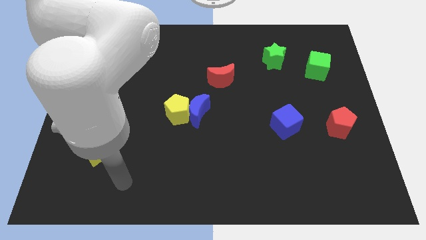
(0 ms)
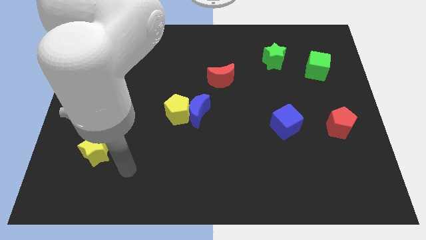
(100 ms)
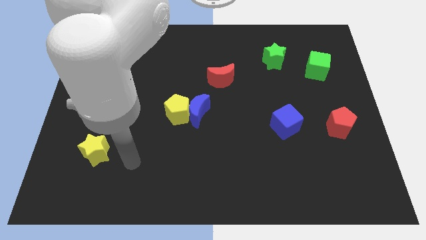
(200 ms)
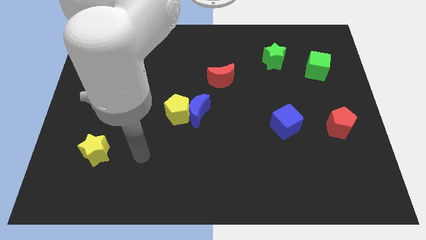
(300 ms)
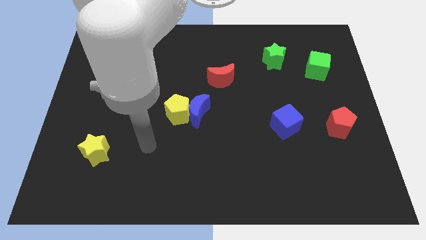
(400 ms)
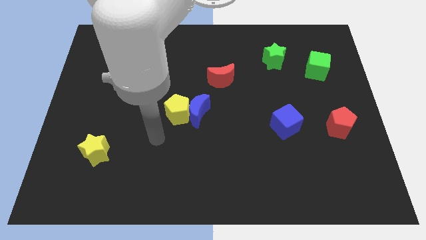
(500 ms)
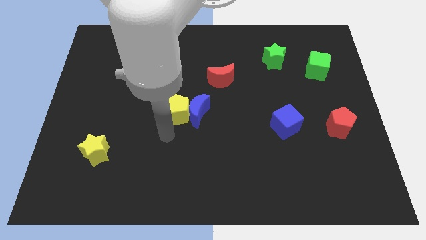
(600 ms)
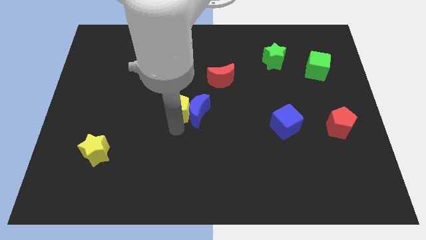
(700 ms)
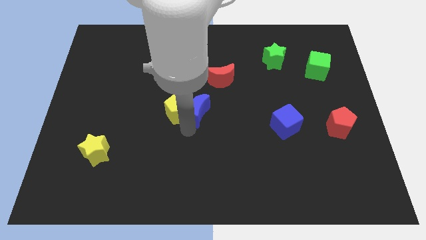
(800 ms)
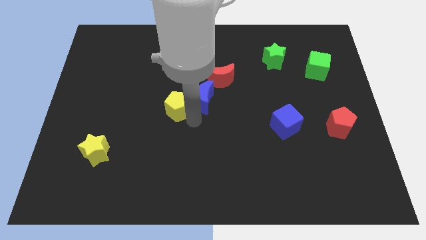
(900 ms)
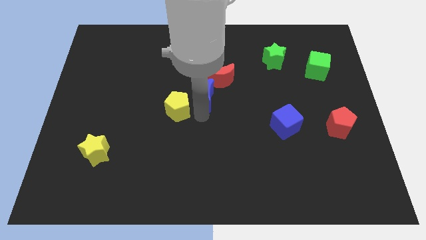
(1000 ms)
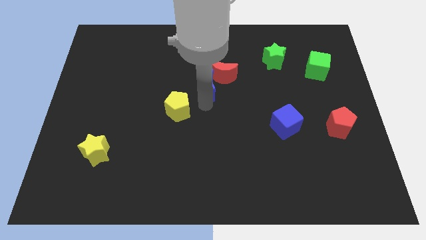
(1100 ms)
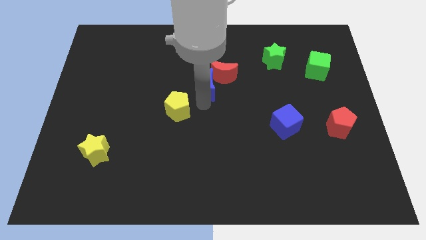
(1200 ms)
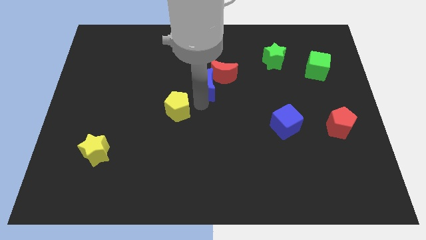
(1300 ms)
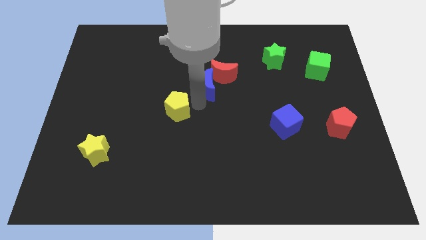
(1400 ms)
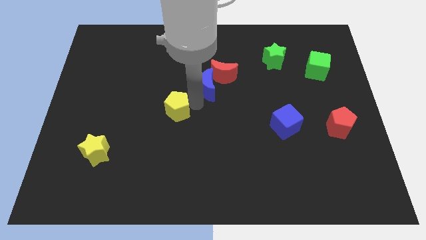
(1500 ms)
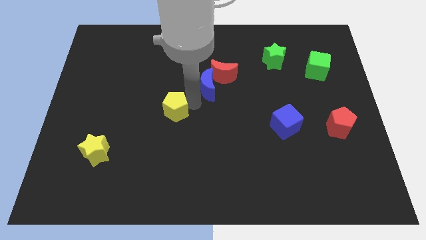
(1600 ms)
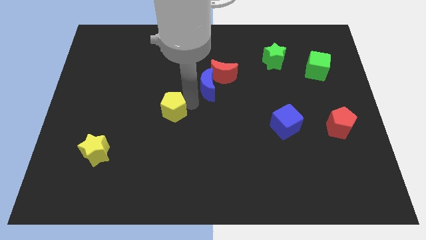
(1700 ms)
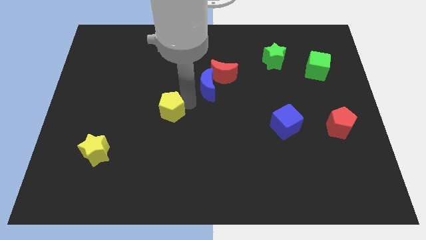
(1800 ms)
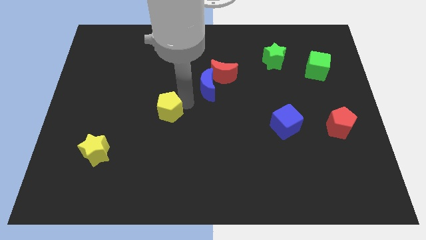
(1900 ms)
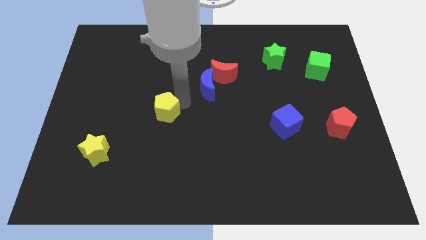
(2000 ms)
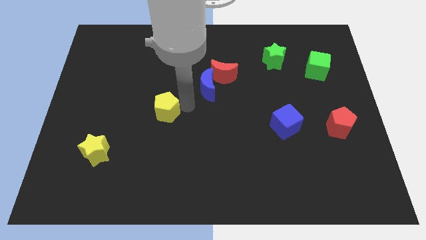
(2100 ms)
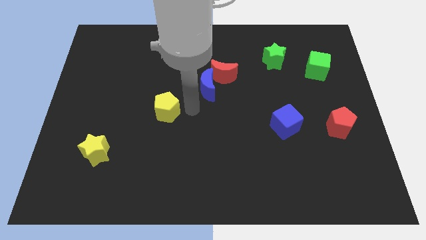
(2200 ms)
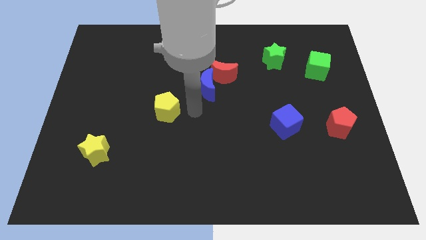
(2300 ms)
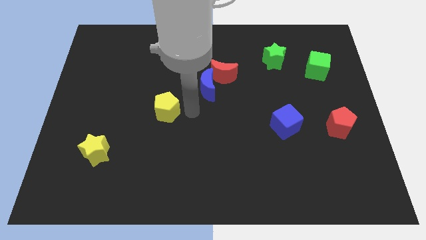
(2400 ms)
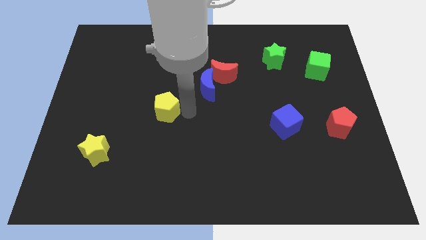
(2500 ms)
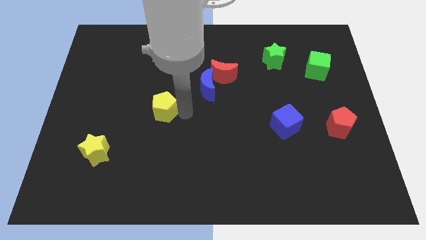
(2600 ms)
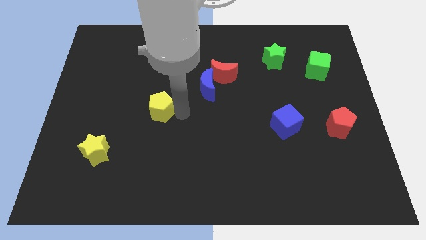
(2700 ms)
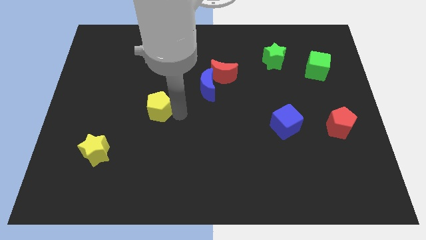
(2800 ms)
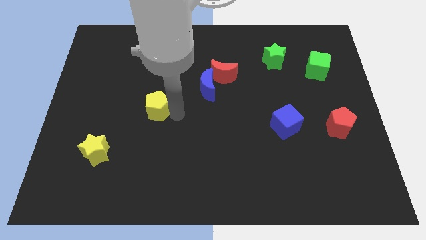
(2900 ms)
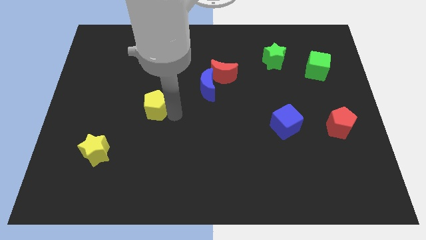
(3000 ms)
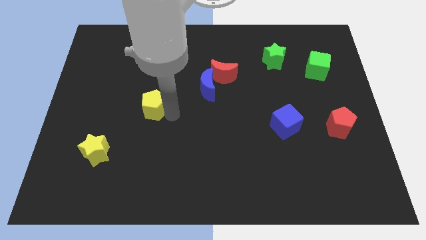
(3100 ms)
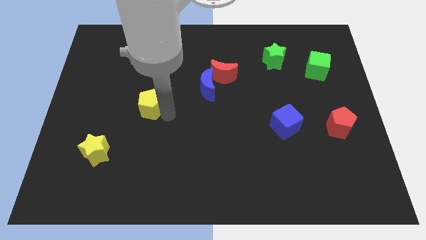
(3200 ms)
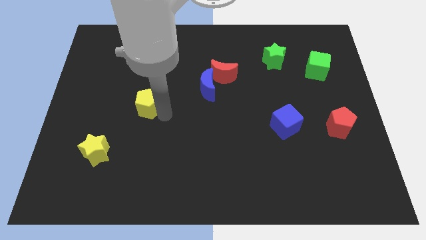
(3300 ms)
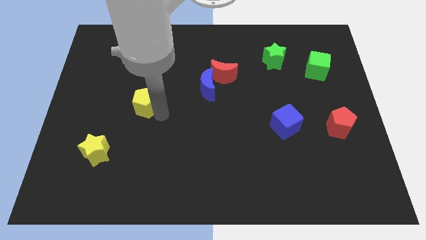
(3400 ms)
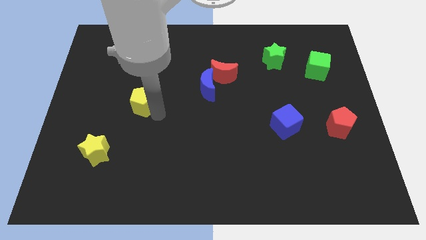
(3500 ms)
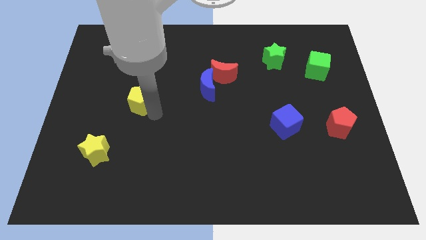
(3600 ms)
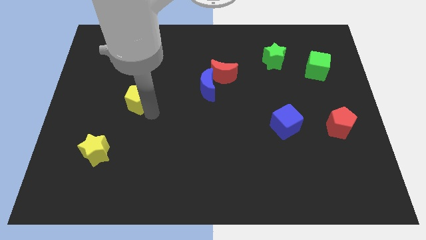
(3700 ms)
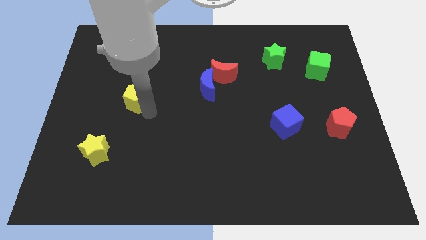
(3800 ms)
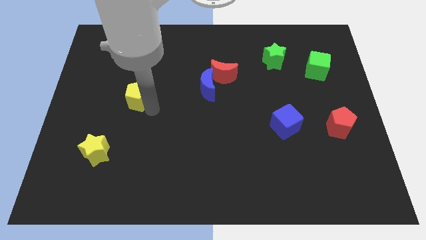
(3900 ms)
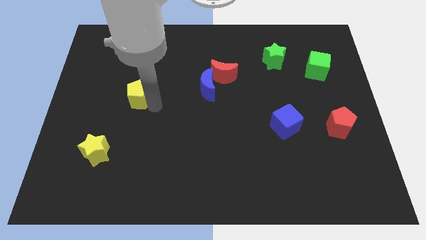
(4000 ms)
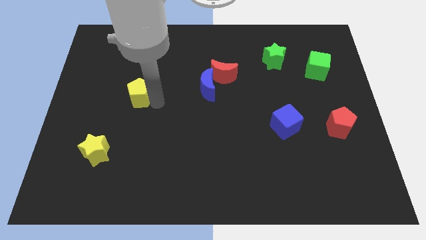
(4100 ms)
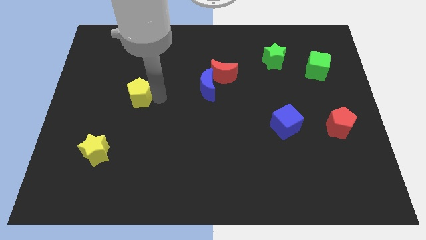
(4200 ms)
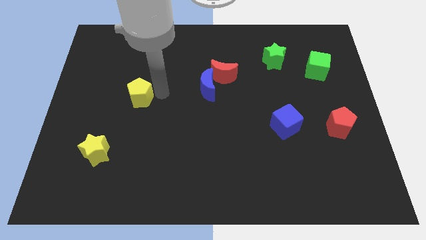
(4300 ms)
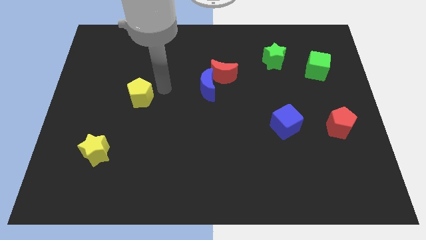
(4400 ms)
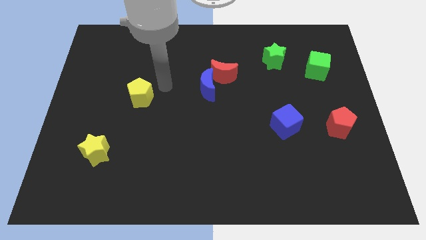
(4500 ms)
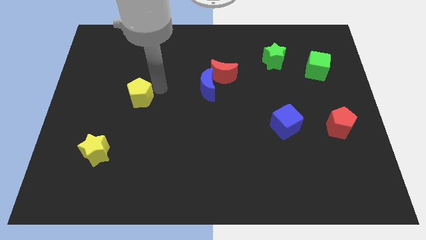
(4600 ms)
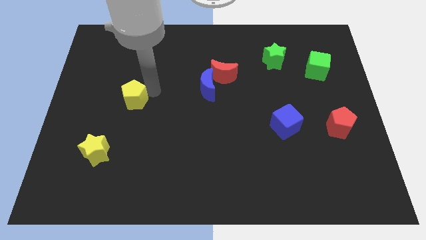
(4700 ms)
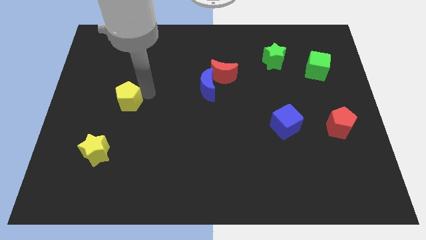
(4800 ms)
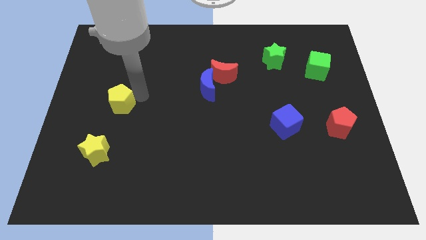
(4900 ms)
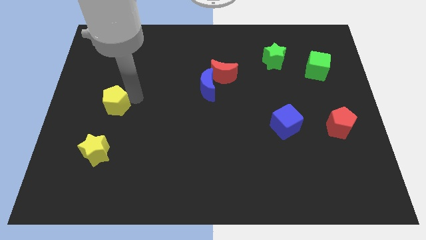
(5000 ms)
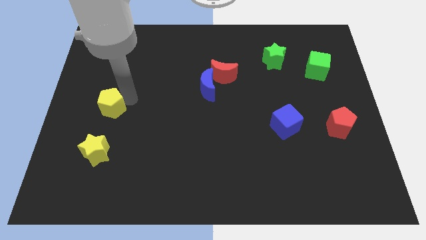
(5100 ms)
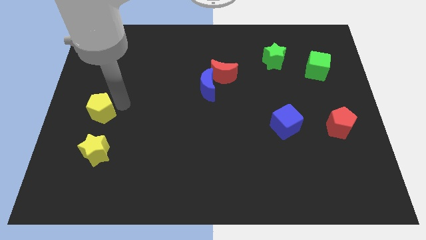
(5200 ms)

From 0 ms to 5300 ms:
put the yellow pentagon to the left side

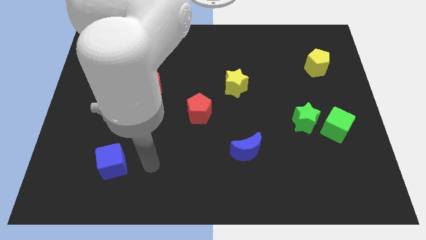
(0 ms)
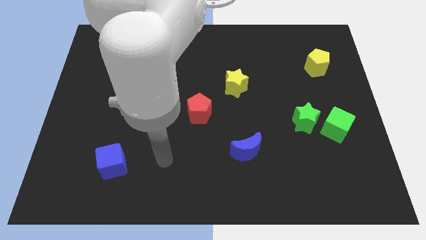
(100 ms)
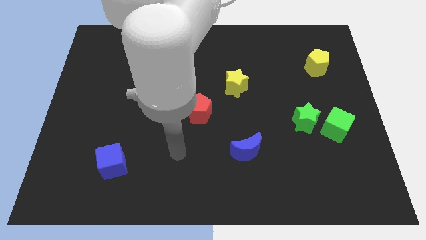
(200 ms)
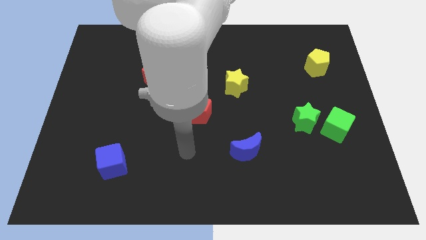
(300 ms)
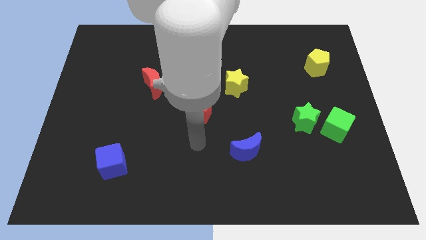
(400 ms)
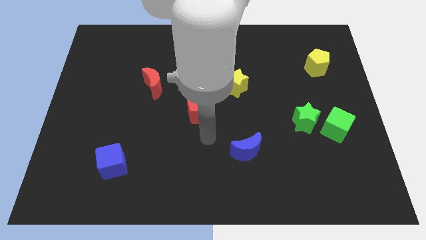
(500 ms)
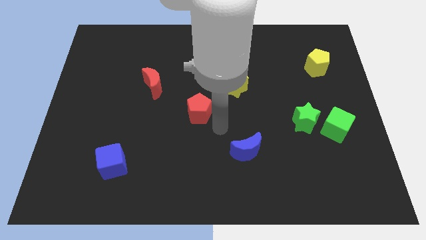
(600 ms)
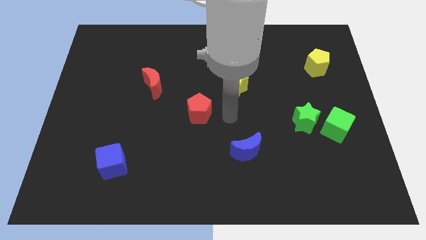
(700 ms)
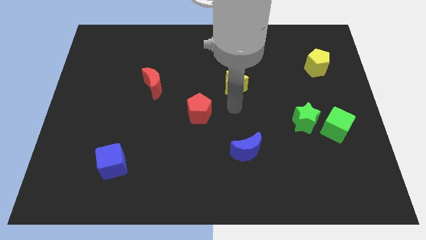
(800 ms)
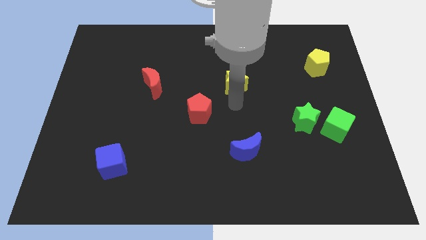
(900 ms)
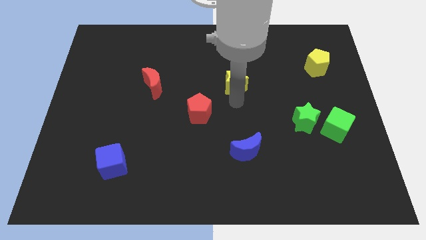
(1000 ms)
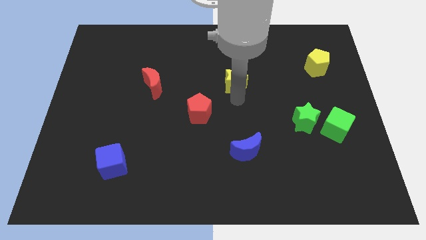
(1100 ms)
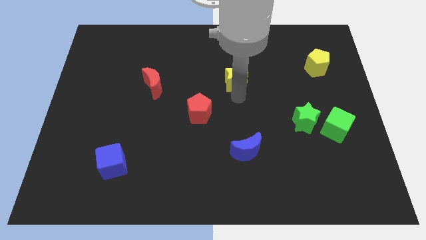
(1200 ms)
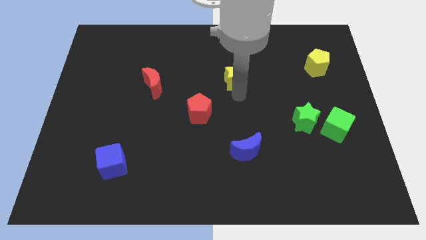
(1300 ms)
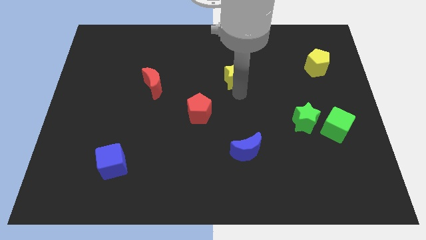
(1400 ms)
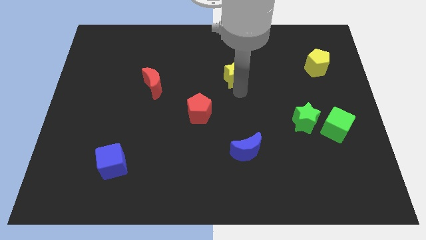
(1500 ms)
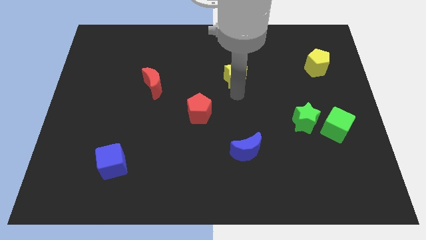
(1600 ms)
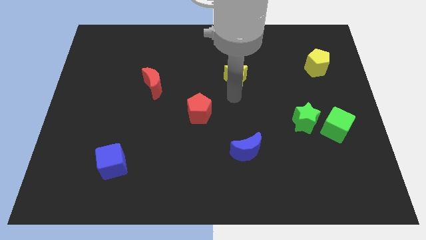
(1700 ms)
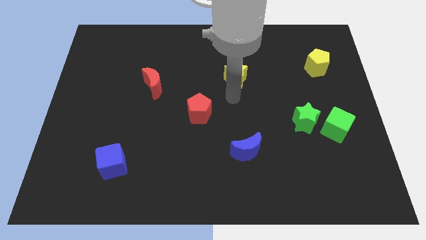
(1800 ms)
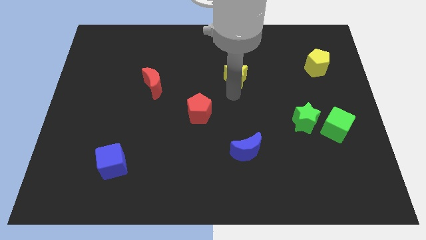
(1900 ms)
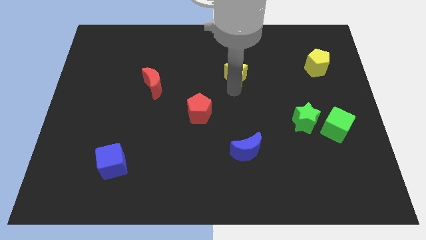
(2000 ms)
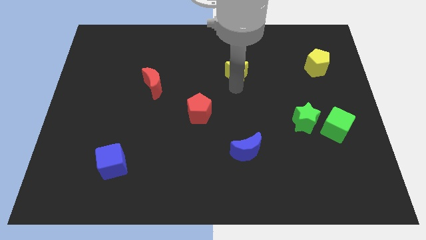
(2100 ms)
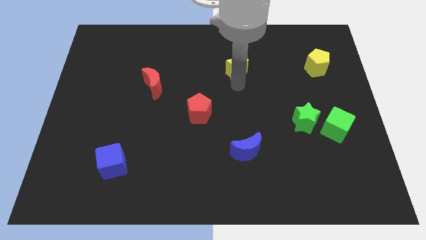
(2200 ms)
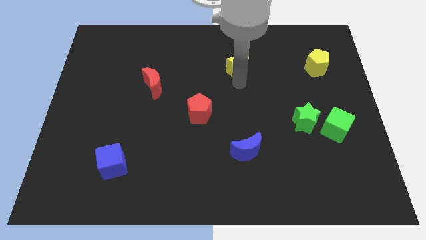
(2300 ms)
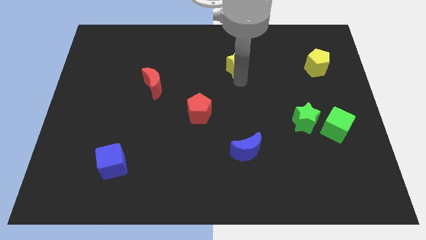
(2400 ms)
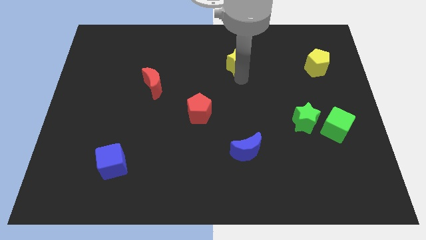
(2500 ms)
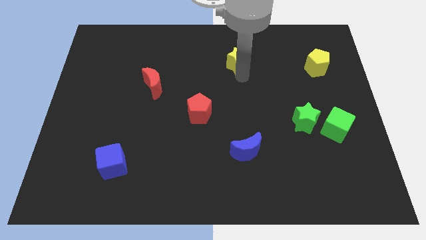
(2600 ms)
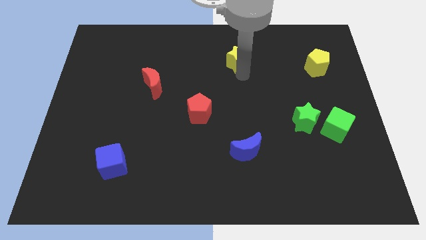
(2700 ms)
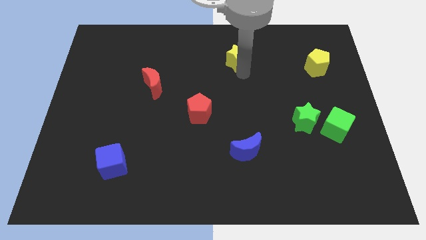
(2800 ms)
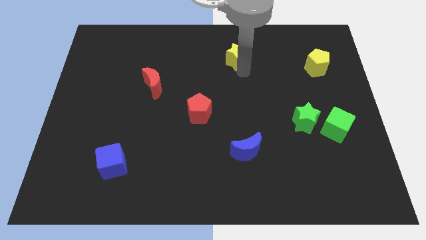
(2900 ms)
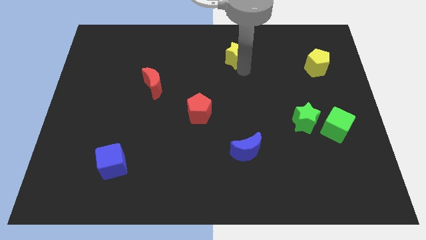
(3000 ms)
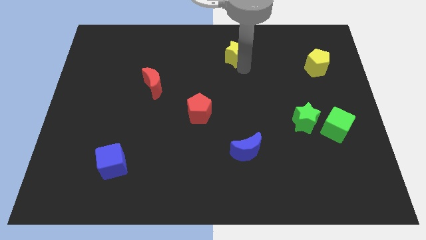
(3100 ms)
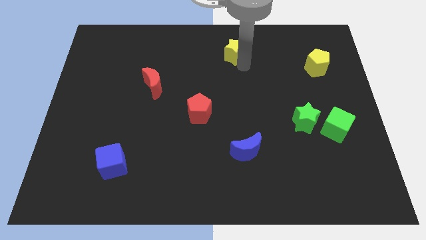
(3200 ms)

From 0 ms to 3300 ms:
push the yellow star to the top side
